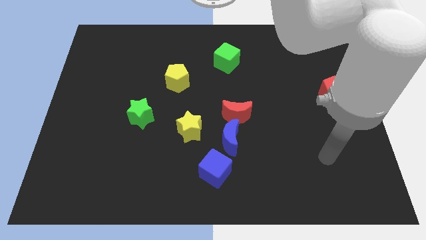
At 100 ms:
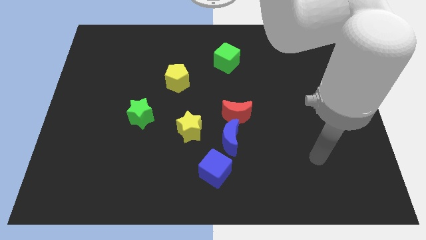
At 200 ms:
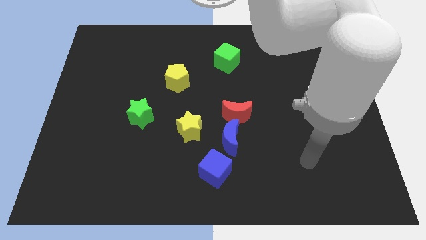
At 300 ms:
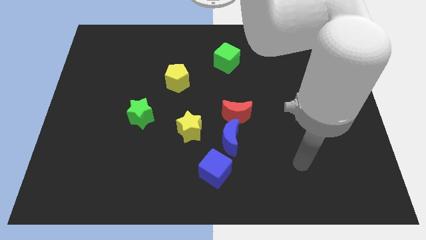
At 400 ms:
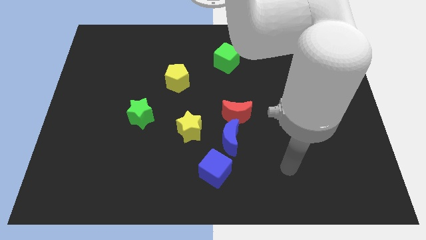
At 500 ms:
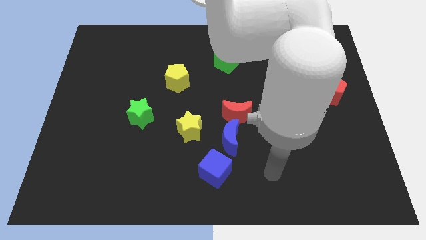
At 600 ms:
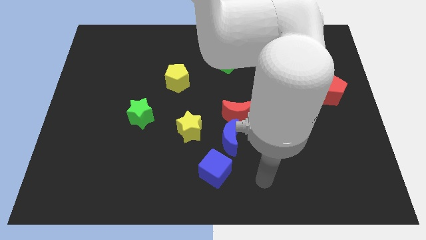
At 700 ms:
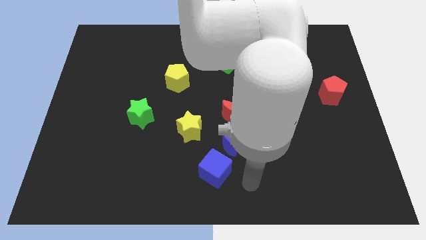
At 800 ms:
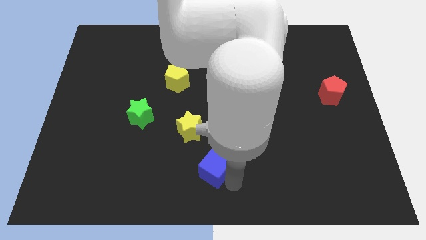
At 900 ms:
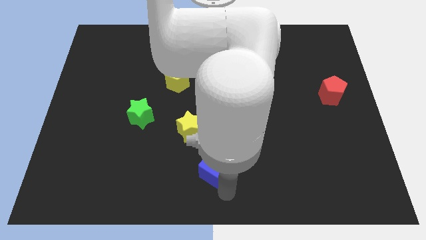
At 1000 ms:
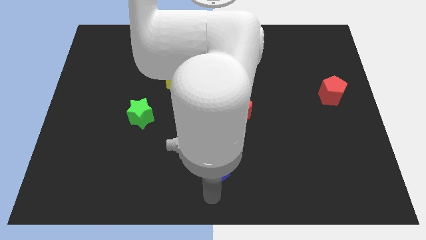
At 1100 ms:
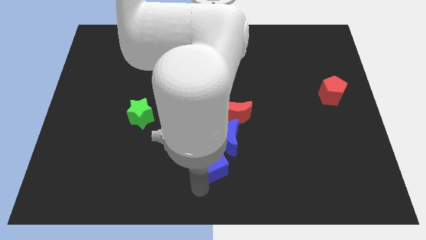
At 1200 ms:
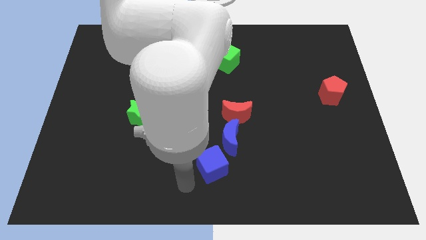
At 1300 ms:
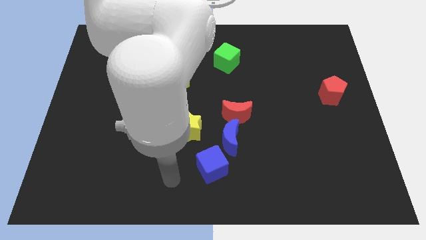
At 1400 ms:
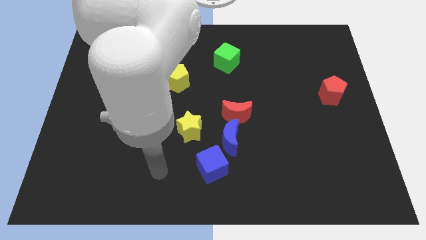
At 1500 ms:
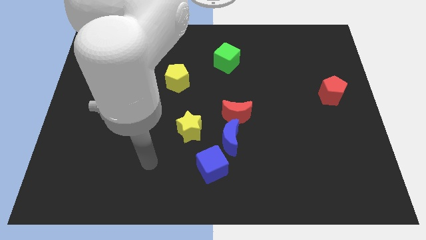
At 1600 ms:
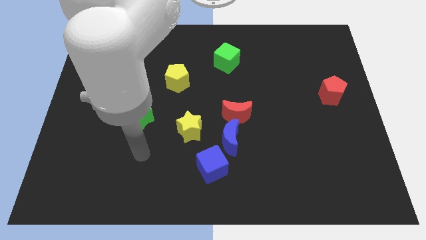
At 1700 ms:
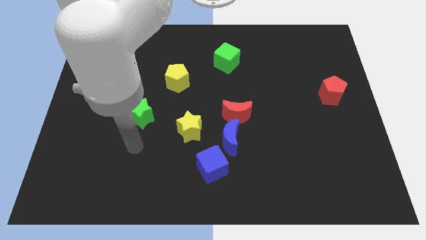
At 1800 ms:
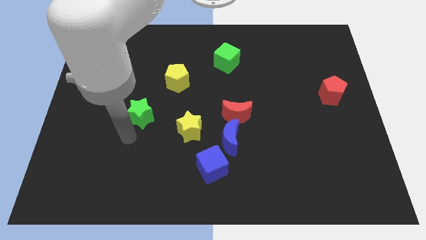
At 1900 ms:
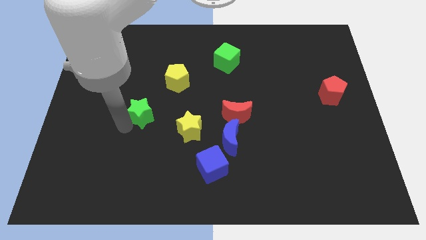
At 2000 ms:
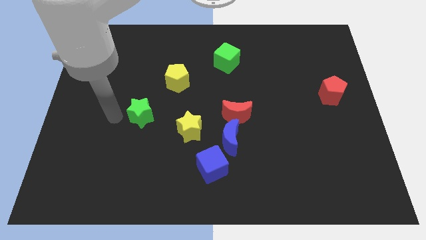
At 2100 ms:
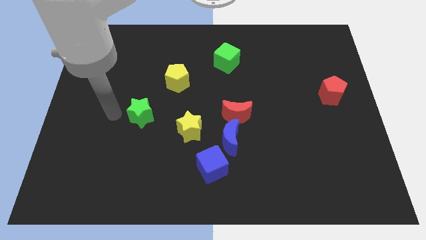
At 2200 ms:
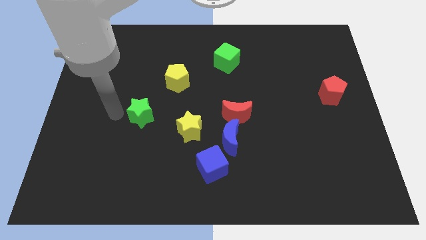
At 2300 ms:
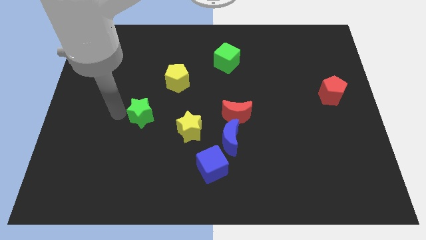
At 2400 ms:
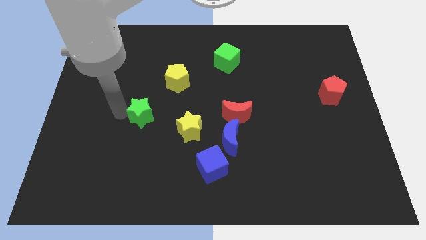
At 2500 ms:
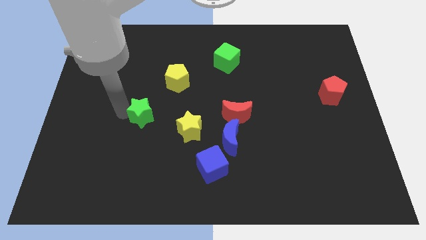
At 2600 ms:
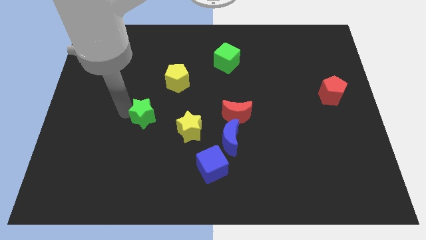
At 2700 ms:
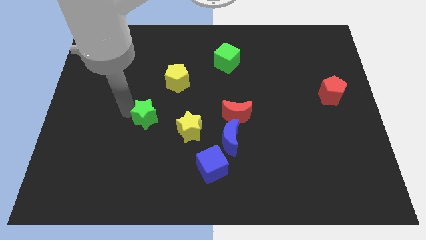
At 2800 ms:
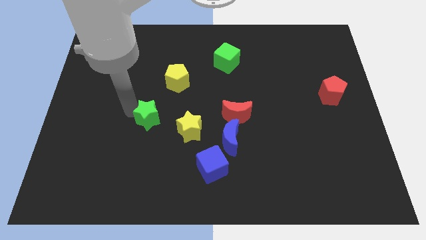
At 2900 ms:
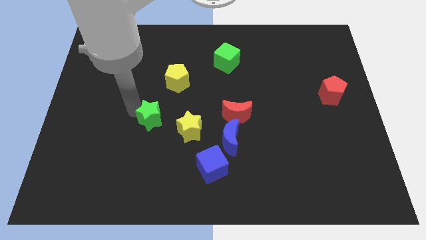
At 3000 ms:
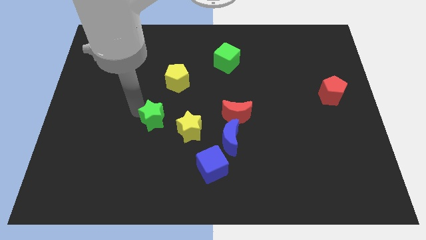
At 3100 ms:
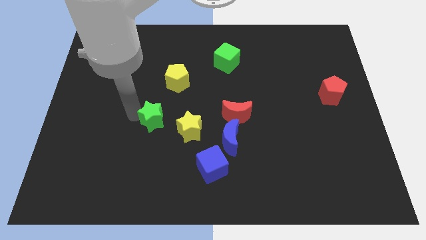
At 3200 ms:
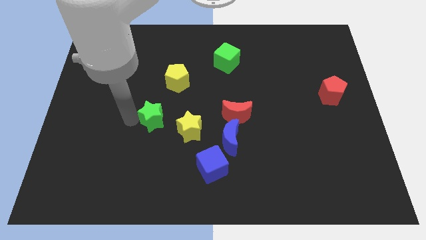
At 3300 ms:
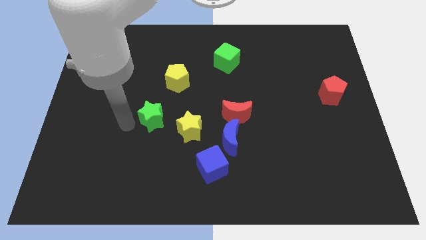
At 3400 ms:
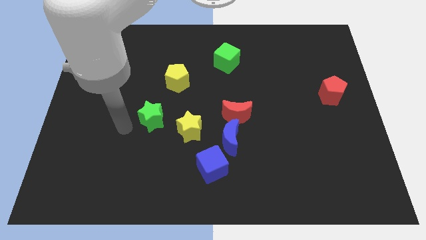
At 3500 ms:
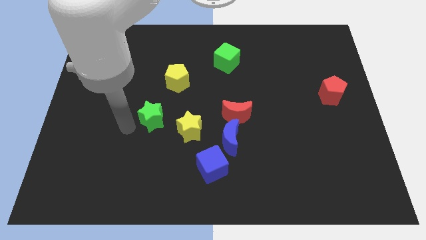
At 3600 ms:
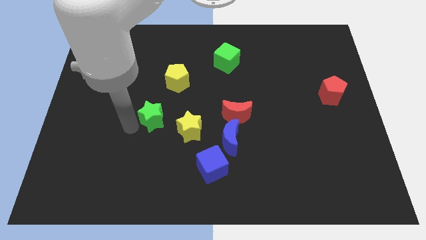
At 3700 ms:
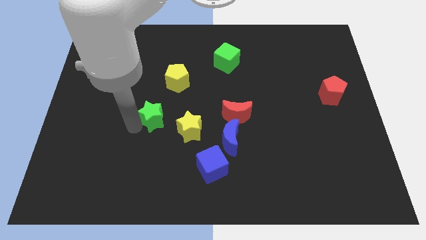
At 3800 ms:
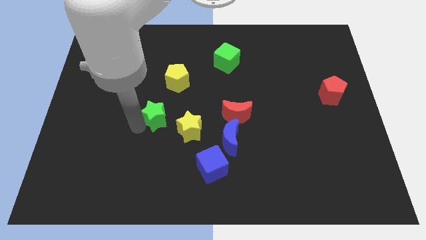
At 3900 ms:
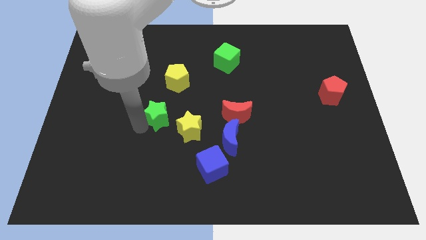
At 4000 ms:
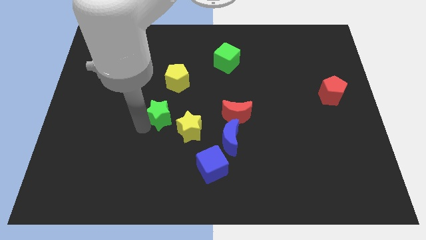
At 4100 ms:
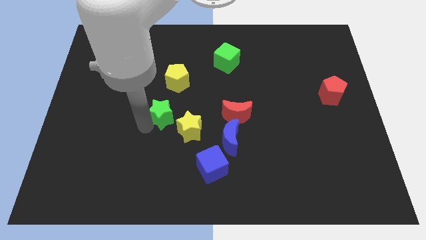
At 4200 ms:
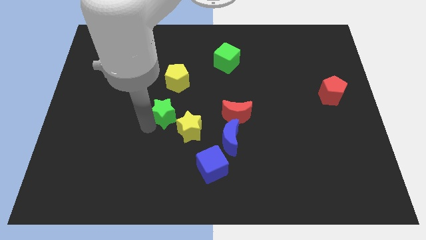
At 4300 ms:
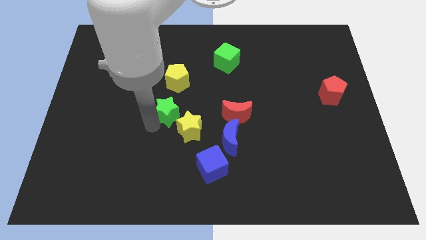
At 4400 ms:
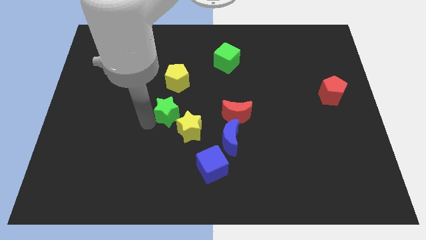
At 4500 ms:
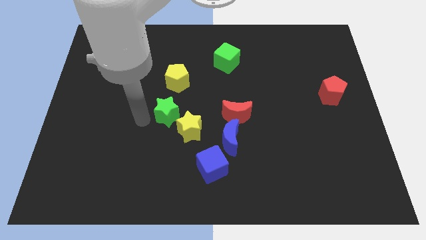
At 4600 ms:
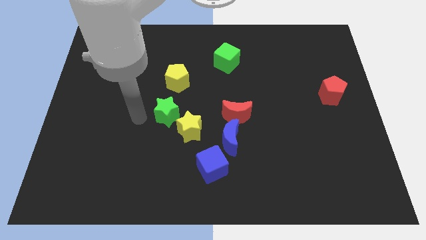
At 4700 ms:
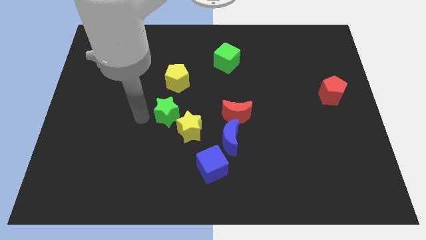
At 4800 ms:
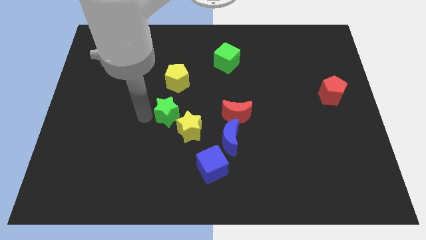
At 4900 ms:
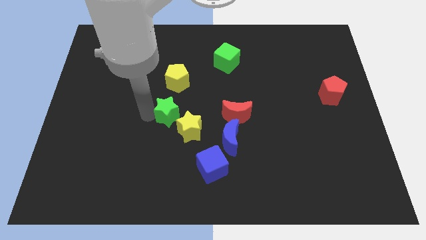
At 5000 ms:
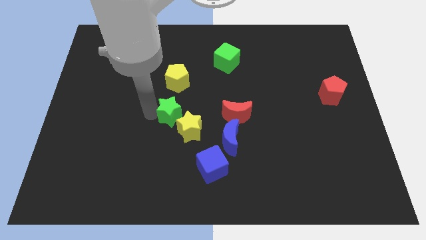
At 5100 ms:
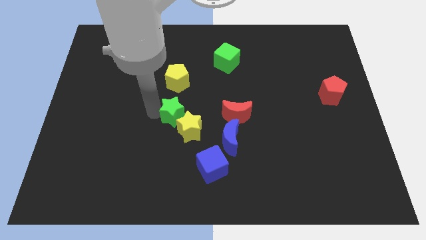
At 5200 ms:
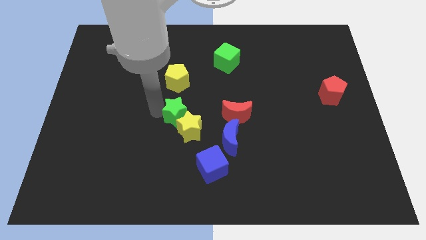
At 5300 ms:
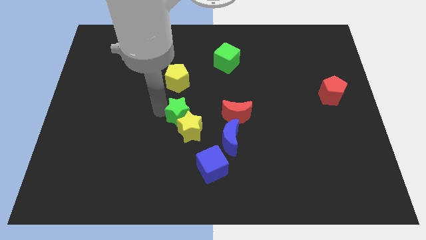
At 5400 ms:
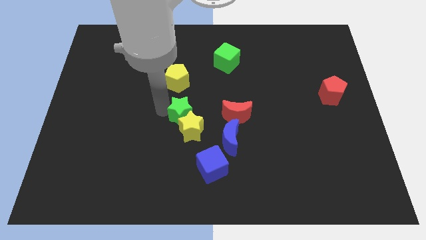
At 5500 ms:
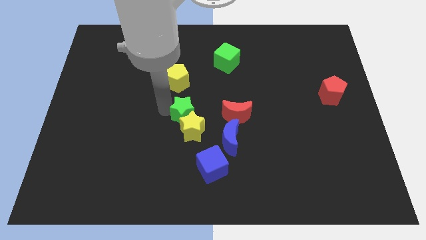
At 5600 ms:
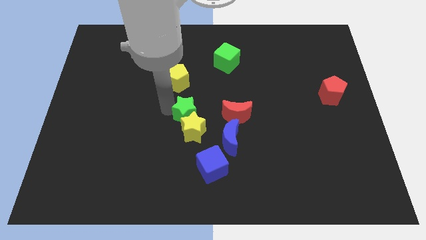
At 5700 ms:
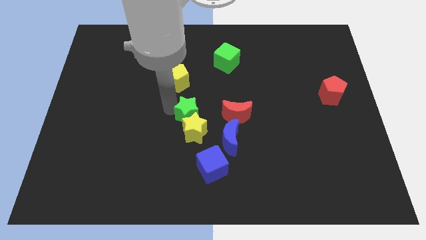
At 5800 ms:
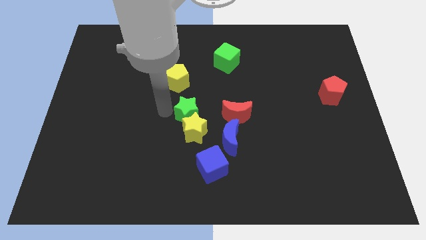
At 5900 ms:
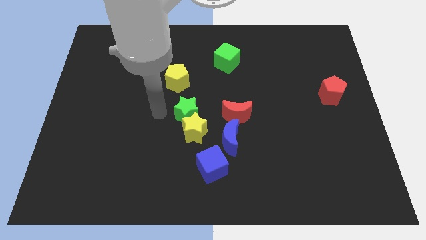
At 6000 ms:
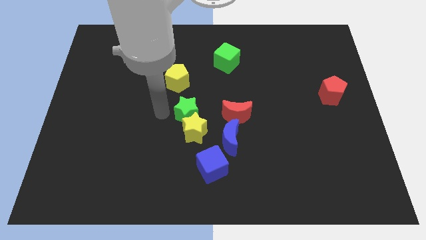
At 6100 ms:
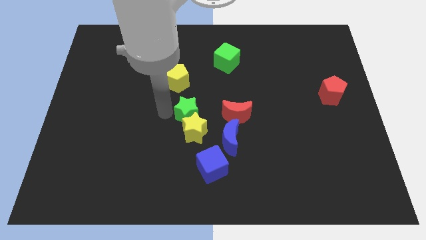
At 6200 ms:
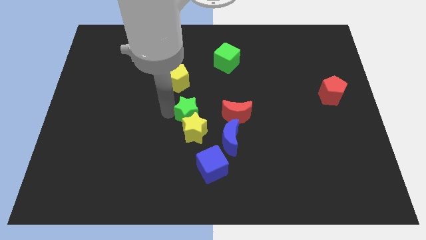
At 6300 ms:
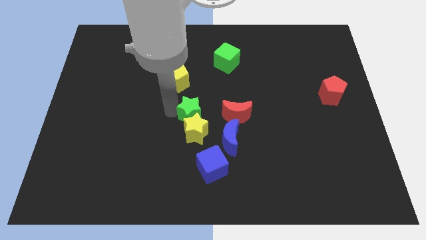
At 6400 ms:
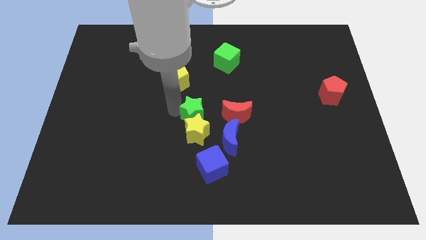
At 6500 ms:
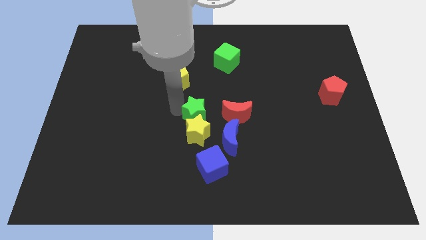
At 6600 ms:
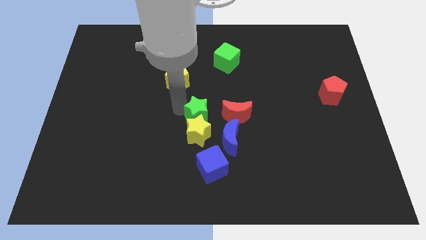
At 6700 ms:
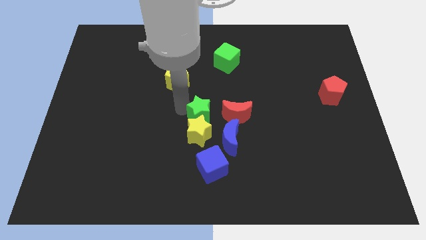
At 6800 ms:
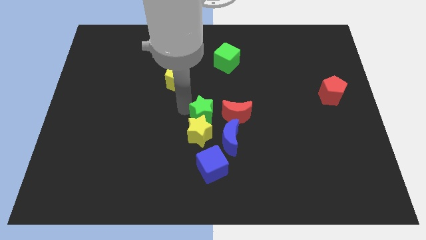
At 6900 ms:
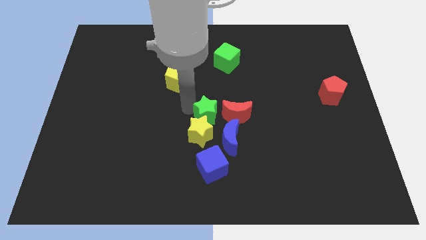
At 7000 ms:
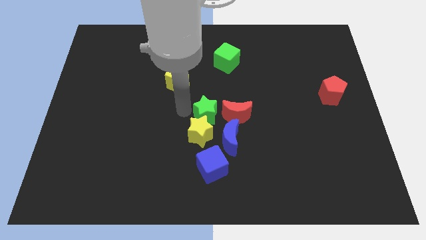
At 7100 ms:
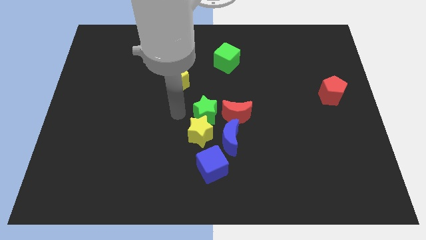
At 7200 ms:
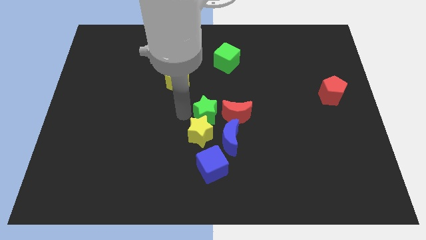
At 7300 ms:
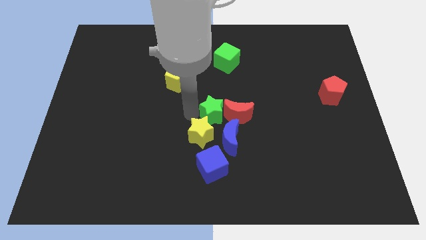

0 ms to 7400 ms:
push the green star next to the red moon
